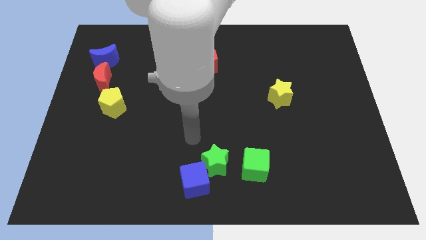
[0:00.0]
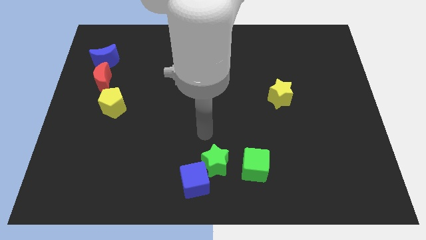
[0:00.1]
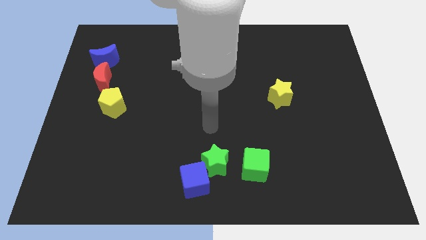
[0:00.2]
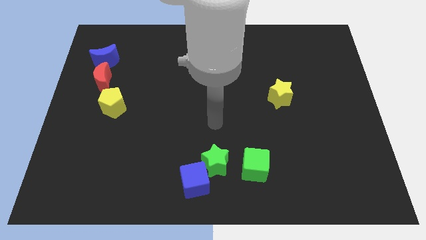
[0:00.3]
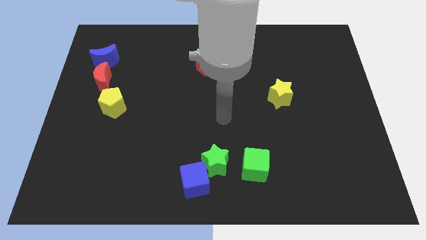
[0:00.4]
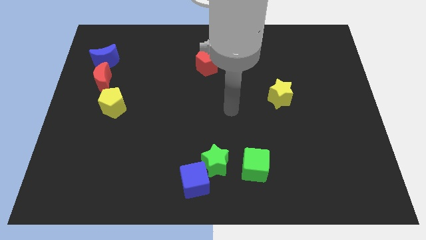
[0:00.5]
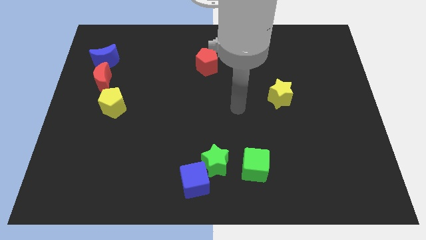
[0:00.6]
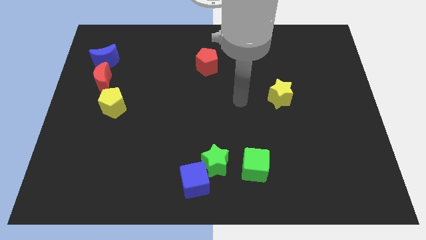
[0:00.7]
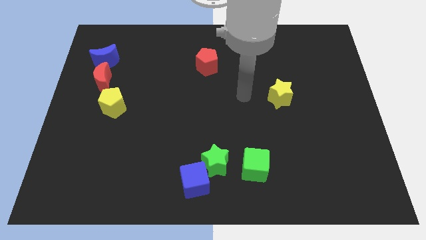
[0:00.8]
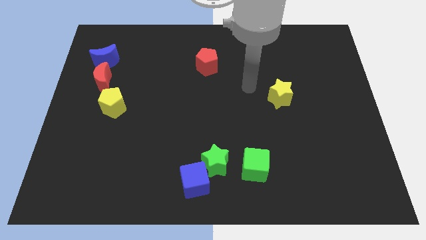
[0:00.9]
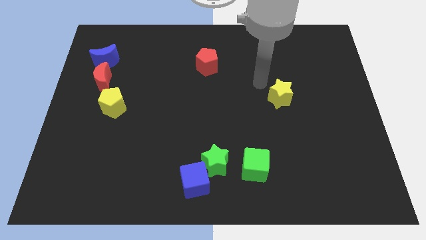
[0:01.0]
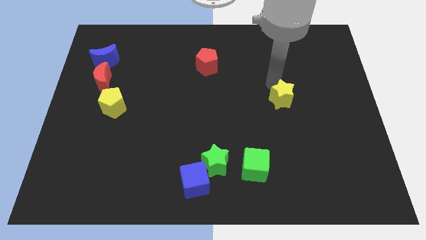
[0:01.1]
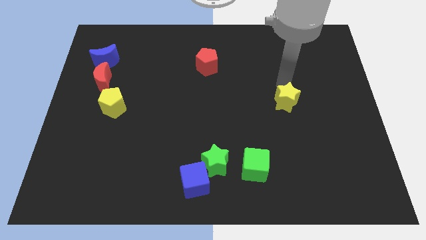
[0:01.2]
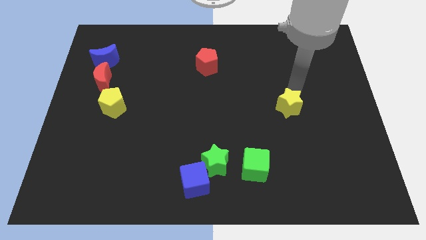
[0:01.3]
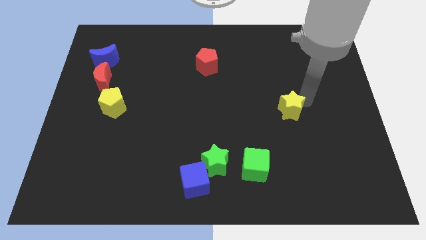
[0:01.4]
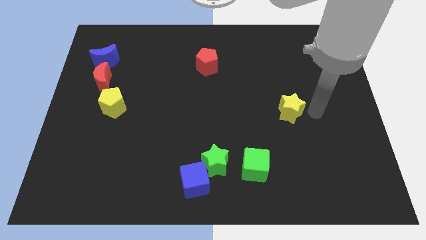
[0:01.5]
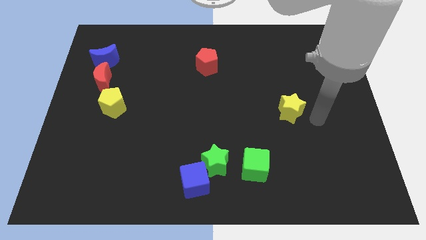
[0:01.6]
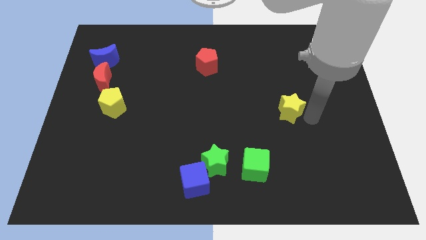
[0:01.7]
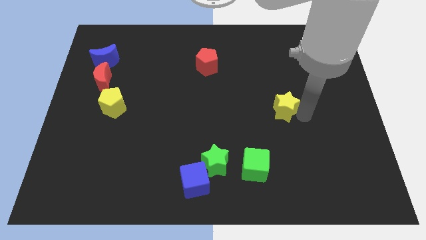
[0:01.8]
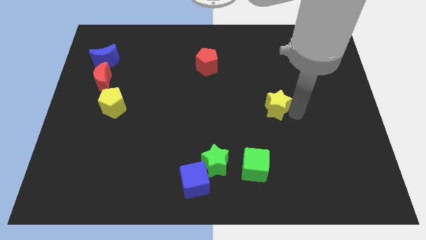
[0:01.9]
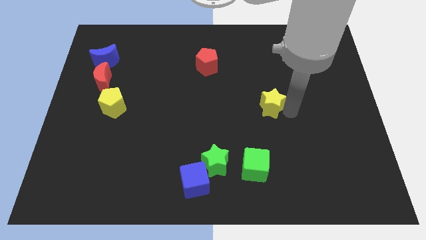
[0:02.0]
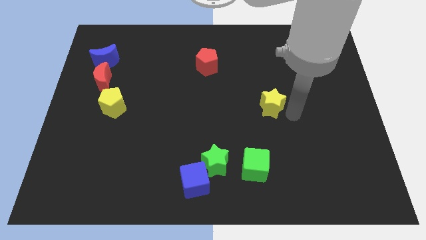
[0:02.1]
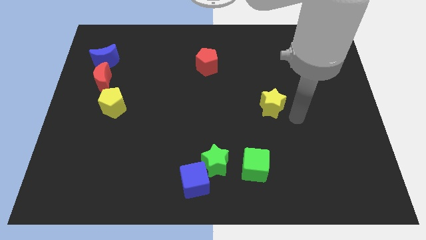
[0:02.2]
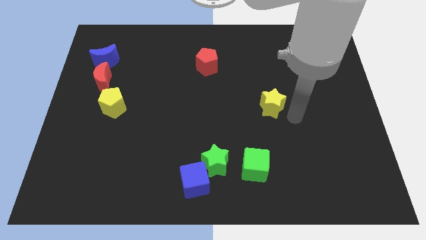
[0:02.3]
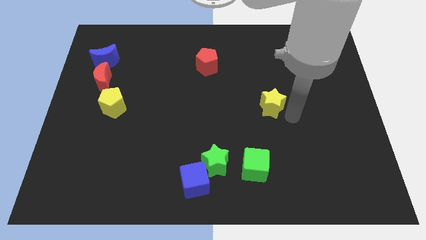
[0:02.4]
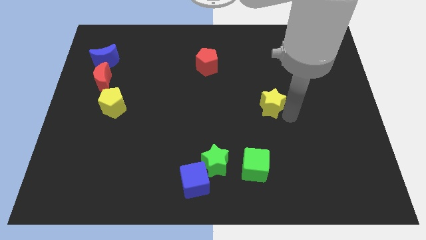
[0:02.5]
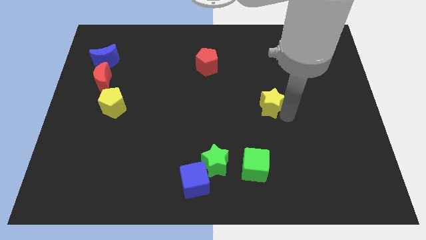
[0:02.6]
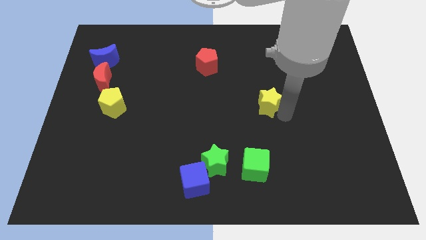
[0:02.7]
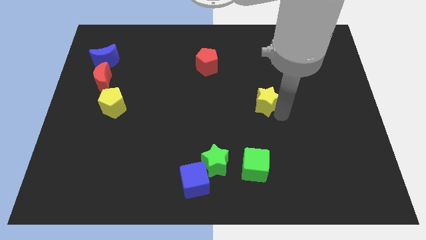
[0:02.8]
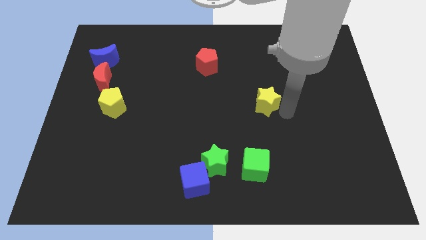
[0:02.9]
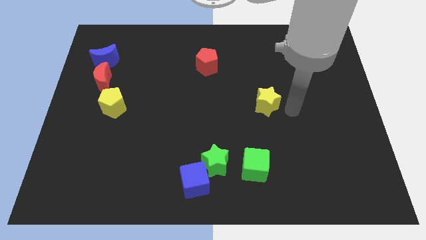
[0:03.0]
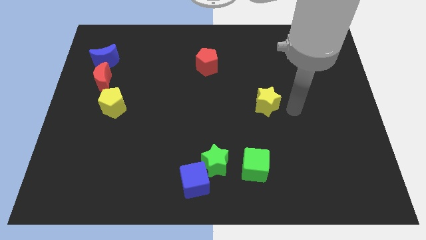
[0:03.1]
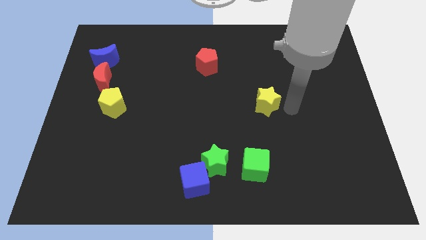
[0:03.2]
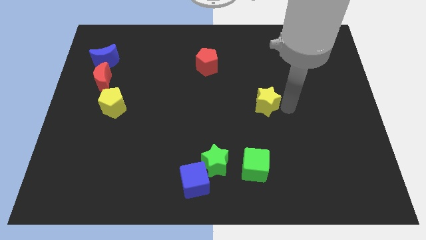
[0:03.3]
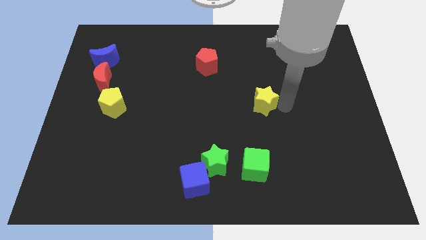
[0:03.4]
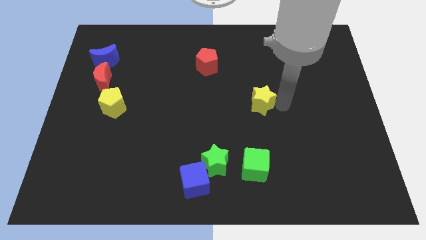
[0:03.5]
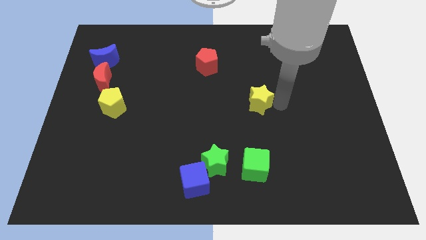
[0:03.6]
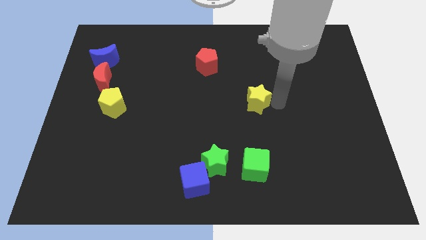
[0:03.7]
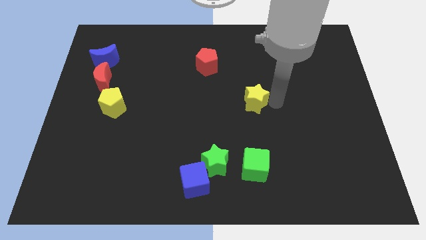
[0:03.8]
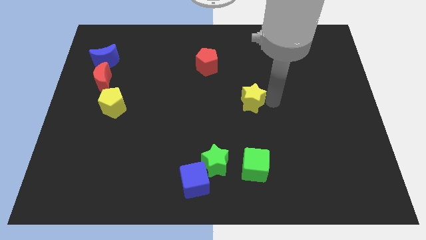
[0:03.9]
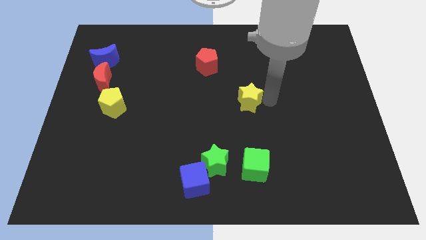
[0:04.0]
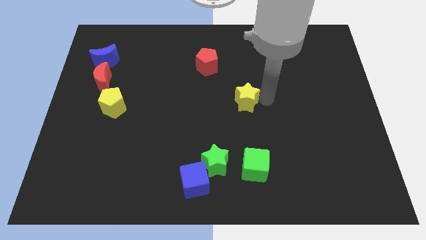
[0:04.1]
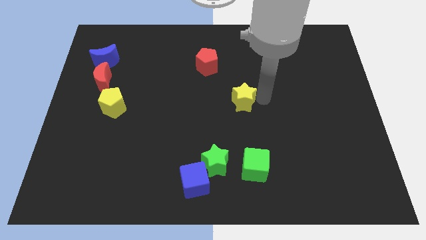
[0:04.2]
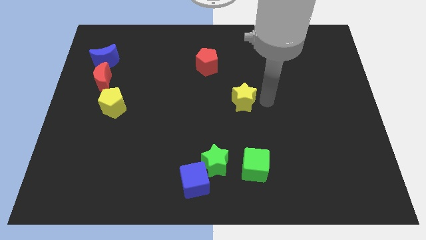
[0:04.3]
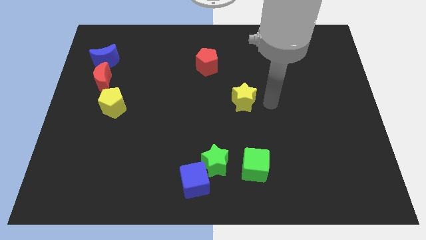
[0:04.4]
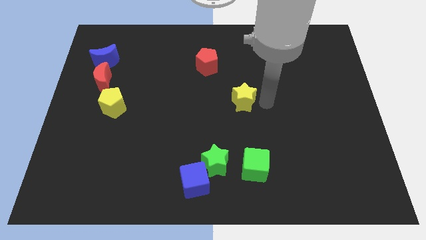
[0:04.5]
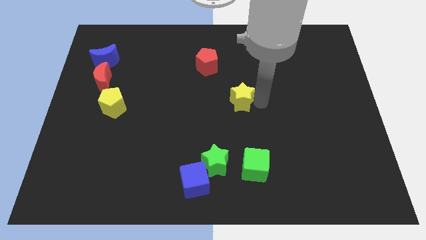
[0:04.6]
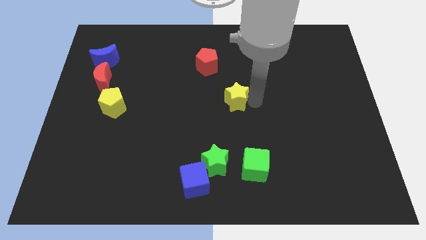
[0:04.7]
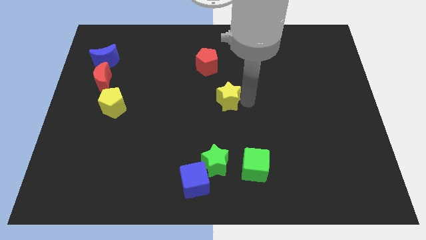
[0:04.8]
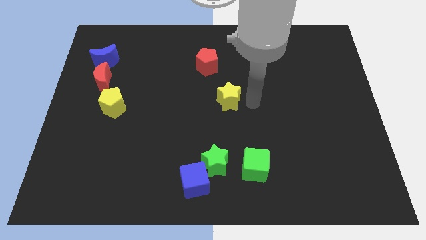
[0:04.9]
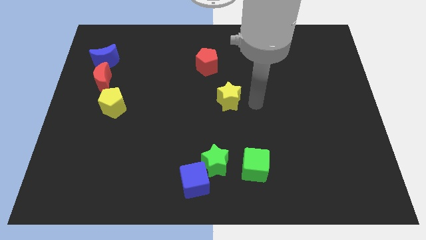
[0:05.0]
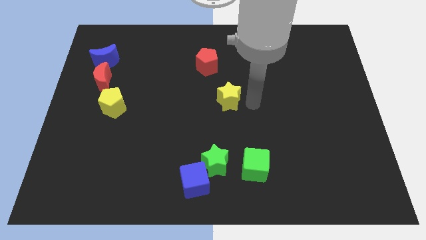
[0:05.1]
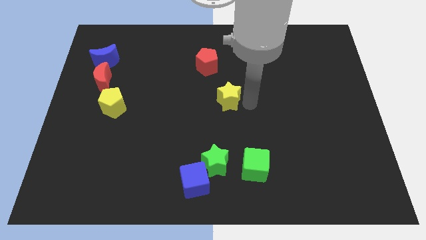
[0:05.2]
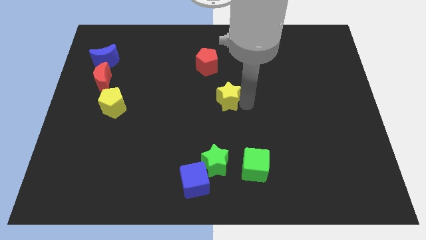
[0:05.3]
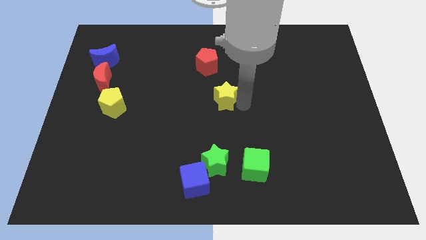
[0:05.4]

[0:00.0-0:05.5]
push the yellow star to the bottom side of the red pentagon
